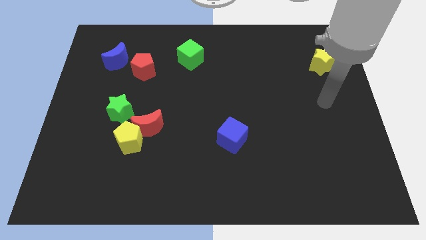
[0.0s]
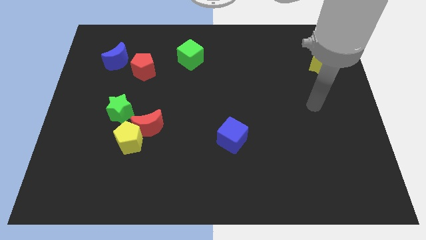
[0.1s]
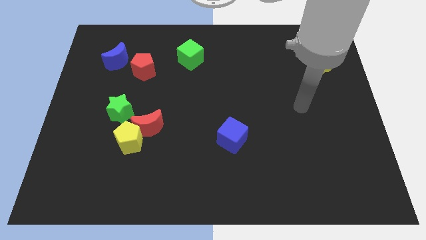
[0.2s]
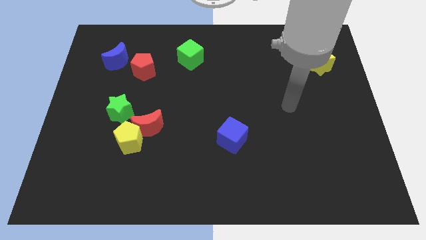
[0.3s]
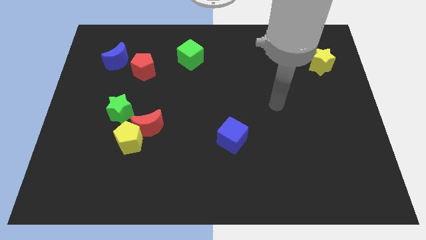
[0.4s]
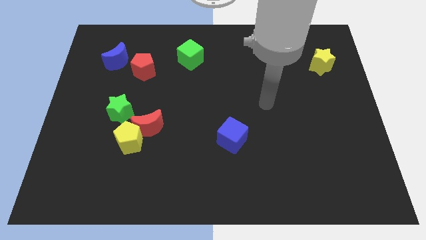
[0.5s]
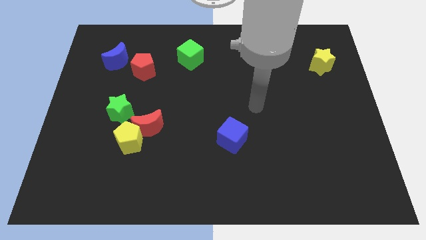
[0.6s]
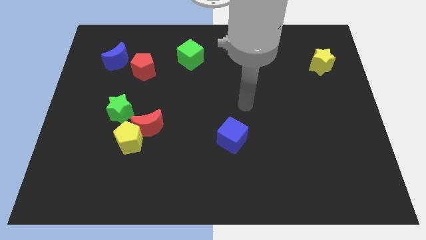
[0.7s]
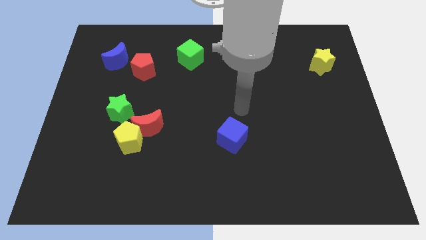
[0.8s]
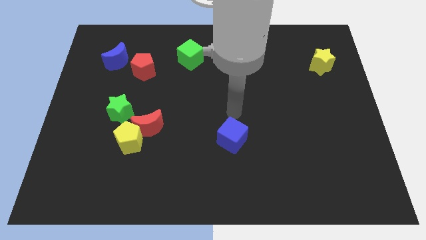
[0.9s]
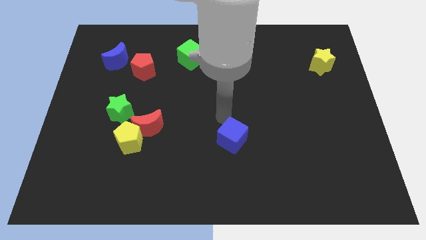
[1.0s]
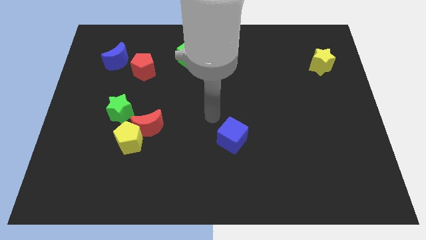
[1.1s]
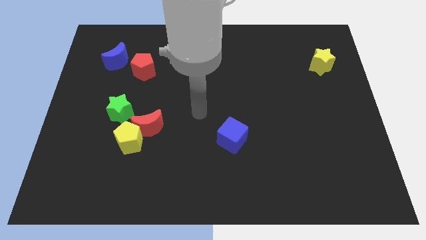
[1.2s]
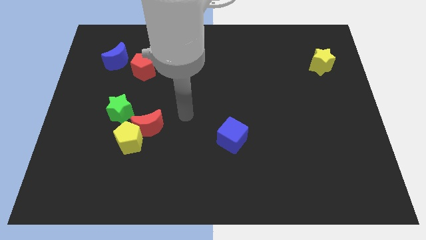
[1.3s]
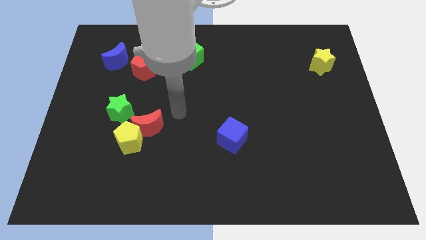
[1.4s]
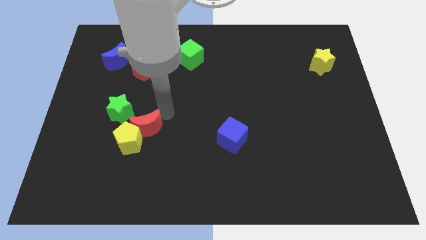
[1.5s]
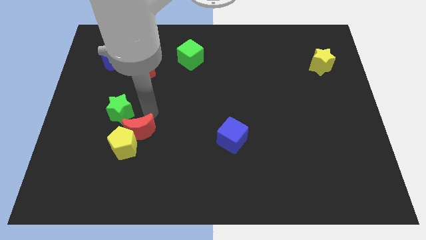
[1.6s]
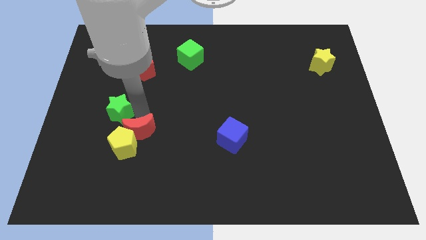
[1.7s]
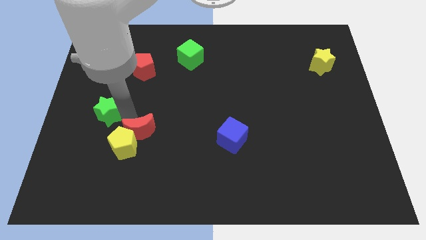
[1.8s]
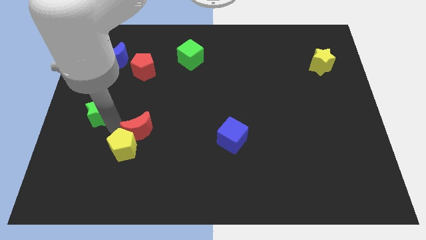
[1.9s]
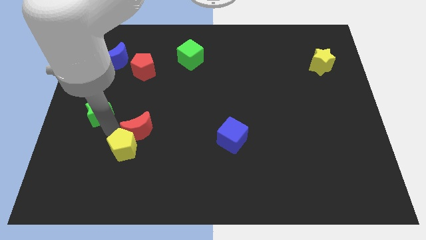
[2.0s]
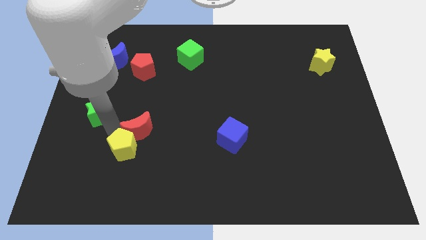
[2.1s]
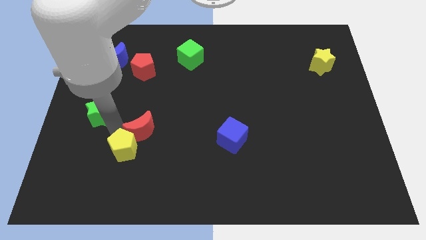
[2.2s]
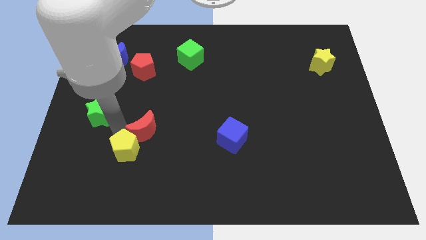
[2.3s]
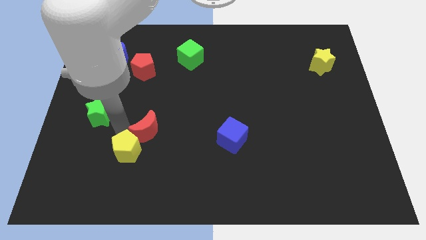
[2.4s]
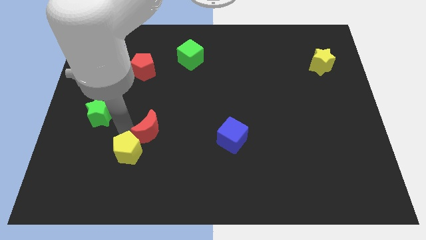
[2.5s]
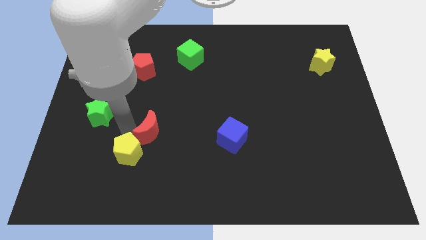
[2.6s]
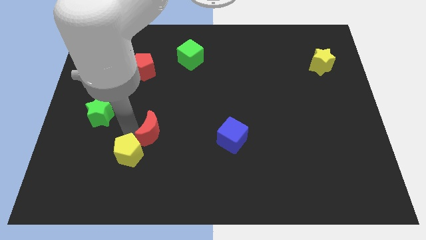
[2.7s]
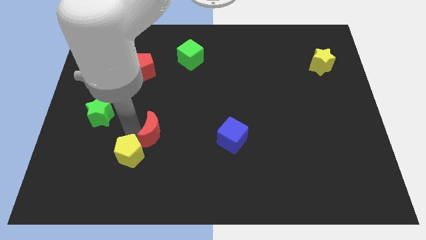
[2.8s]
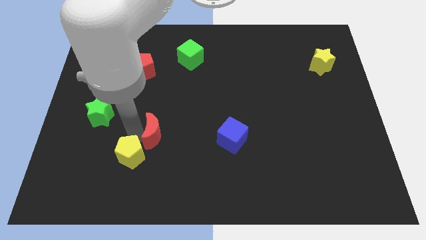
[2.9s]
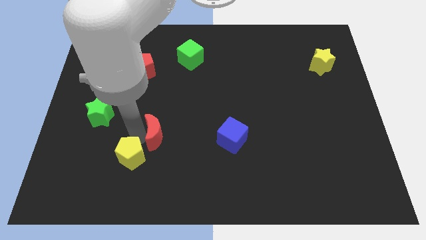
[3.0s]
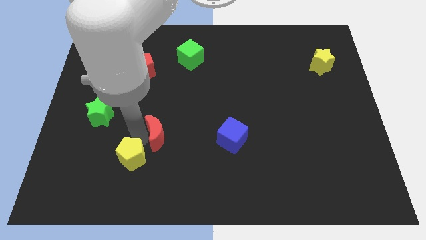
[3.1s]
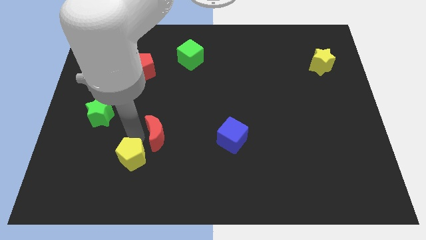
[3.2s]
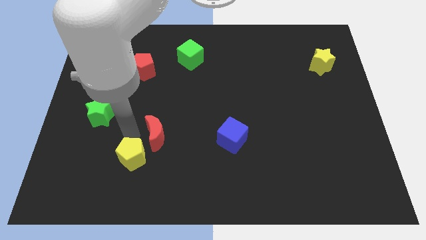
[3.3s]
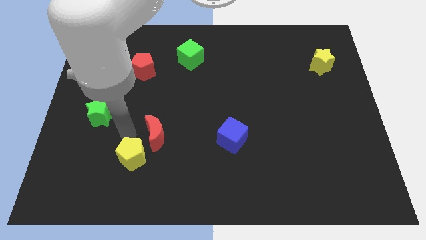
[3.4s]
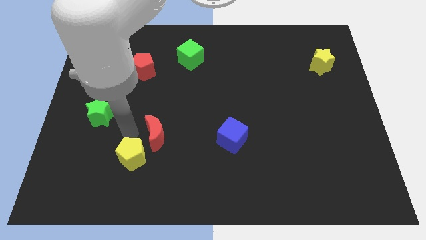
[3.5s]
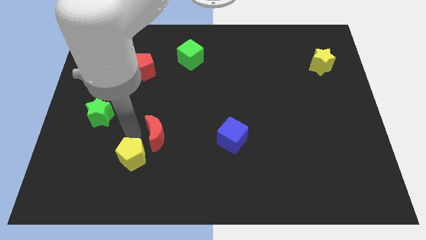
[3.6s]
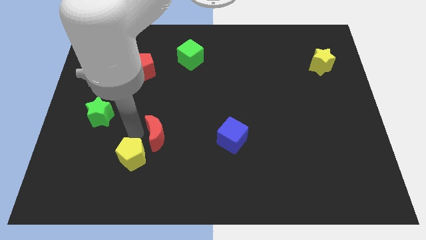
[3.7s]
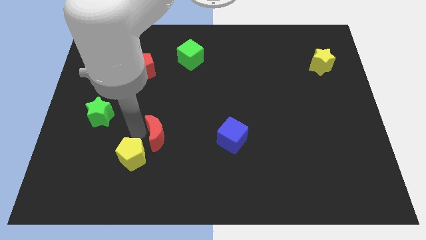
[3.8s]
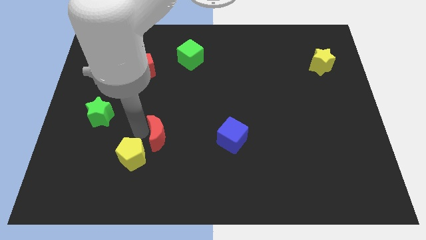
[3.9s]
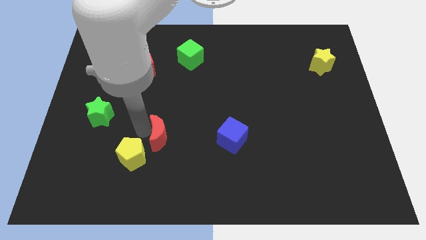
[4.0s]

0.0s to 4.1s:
separate the red moon from the yellow pentagon and green star

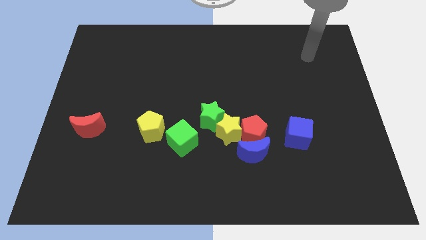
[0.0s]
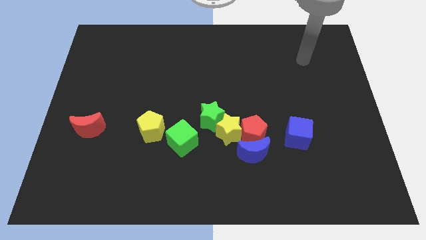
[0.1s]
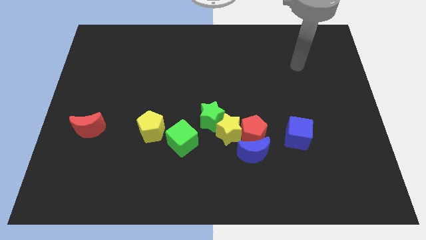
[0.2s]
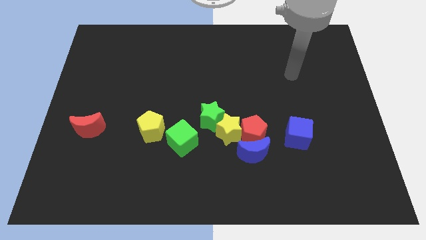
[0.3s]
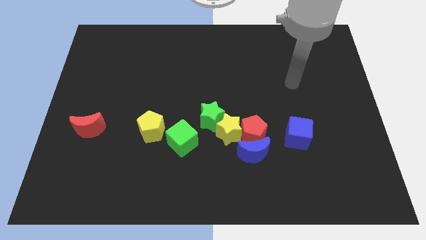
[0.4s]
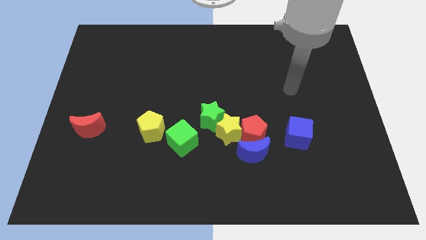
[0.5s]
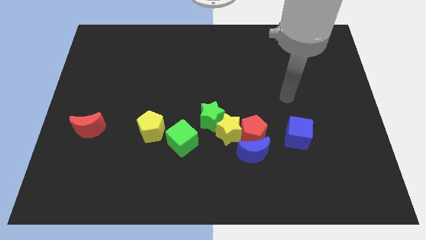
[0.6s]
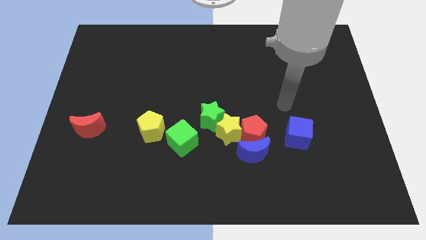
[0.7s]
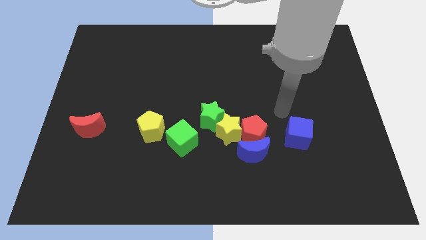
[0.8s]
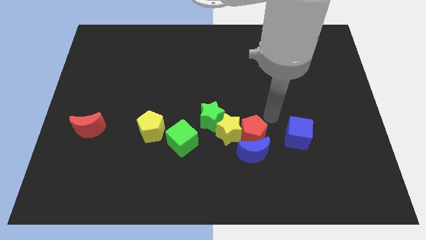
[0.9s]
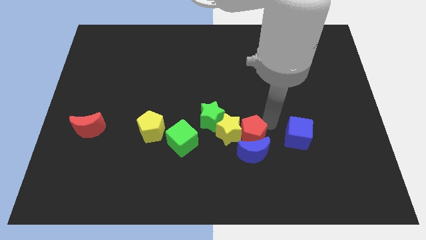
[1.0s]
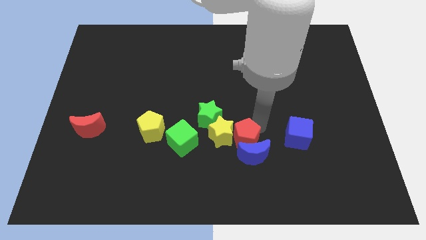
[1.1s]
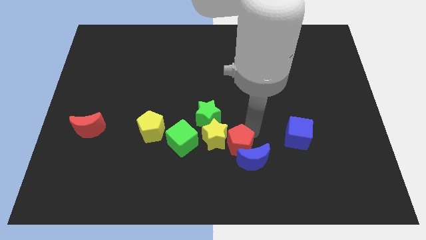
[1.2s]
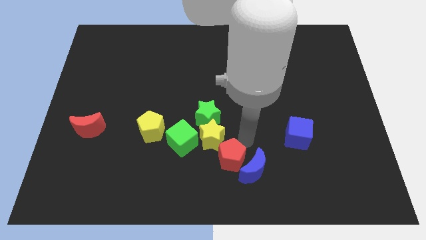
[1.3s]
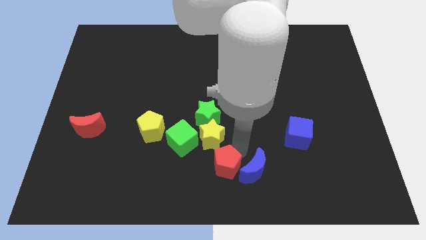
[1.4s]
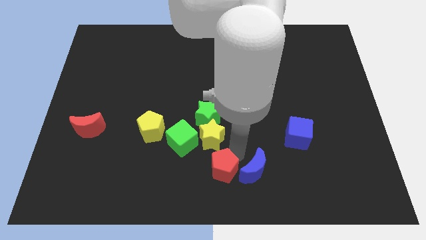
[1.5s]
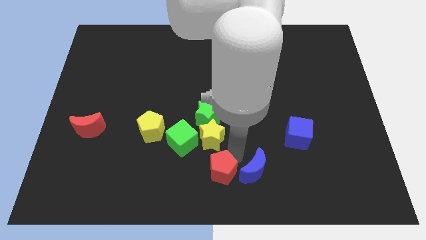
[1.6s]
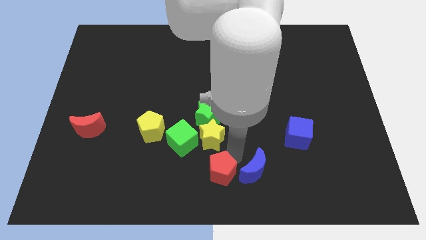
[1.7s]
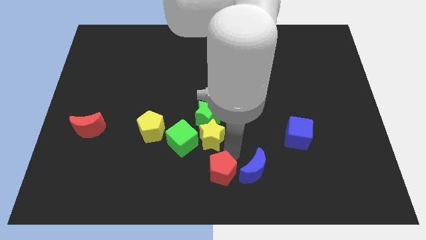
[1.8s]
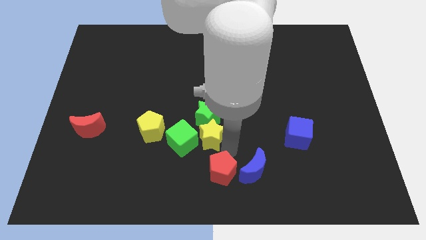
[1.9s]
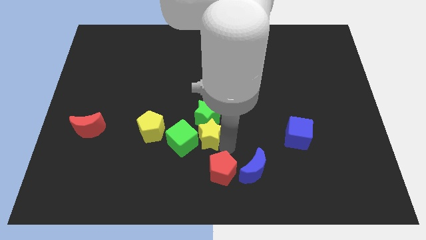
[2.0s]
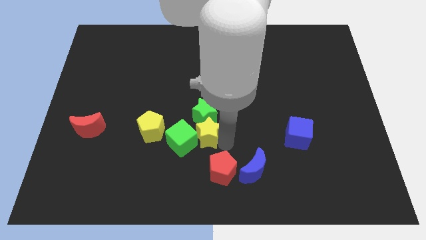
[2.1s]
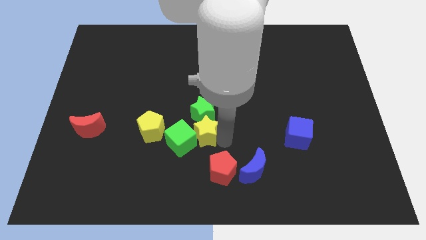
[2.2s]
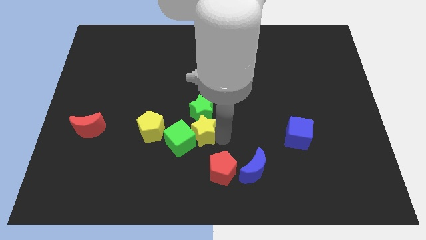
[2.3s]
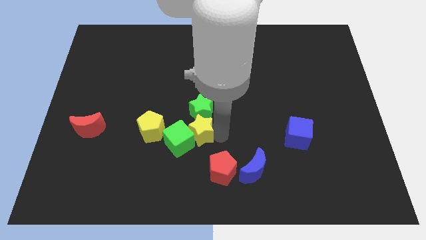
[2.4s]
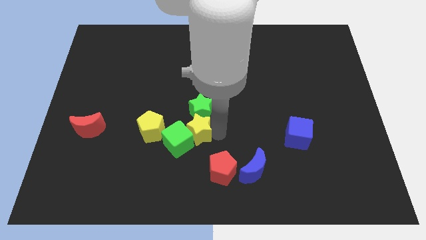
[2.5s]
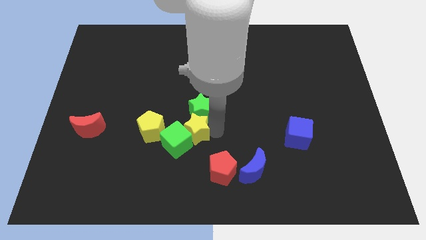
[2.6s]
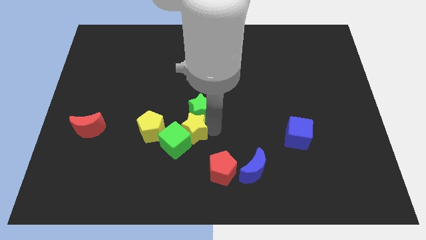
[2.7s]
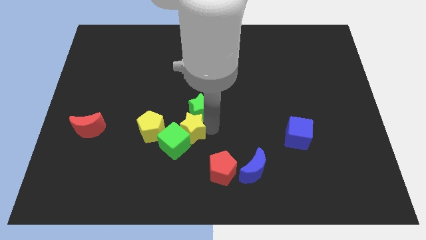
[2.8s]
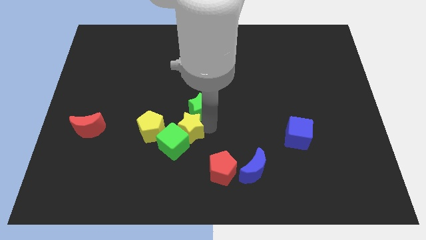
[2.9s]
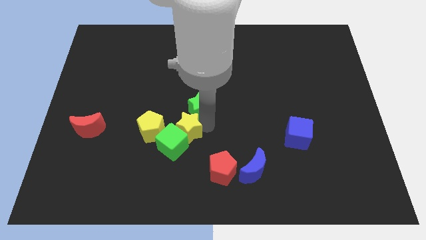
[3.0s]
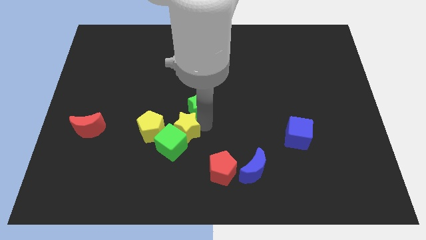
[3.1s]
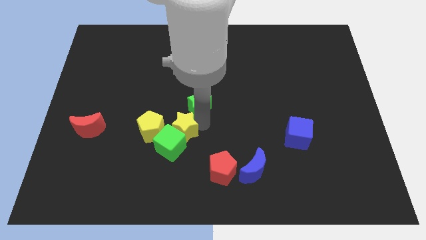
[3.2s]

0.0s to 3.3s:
separate the yellow star from the group

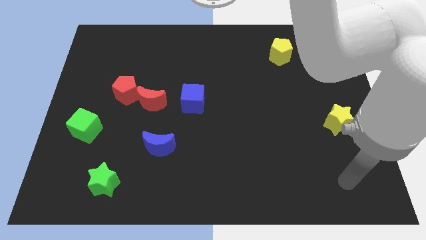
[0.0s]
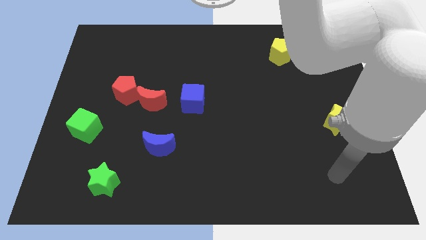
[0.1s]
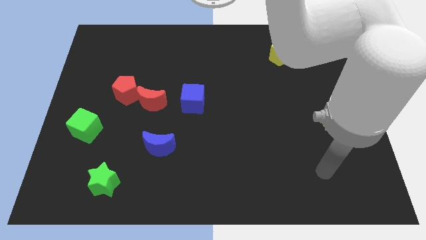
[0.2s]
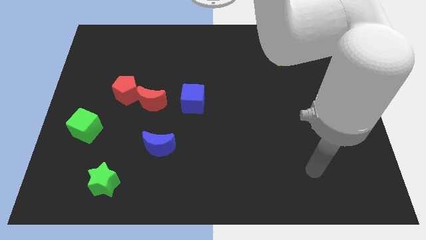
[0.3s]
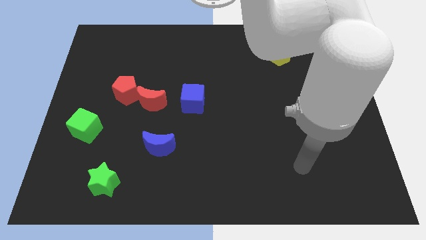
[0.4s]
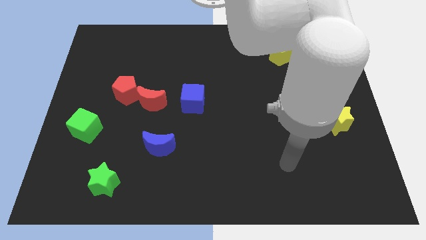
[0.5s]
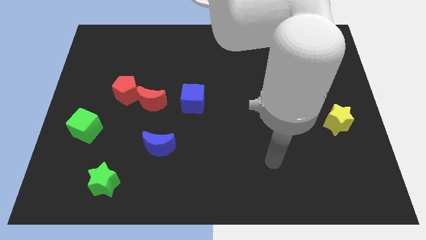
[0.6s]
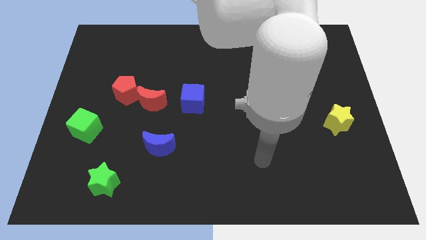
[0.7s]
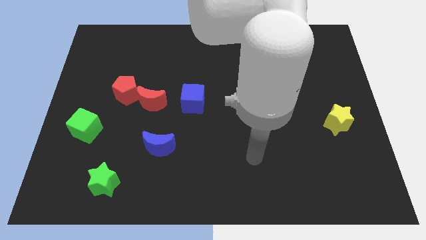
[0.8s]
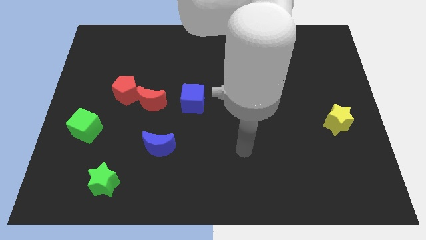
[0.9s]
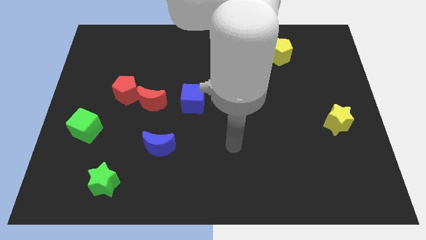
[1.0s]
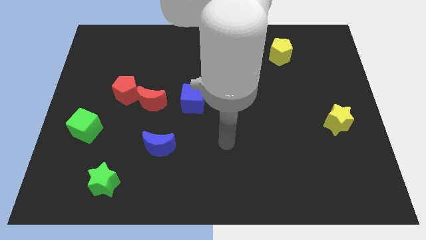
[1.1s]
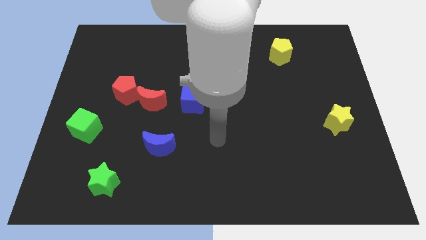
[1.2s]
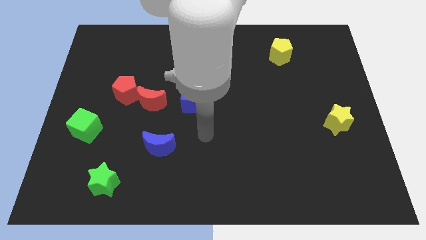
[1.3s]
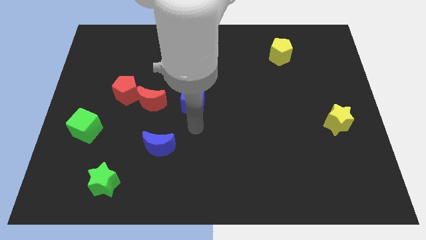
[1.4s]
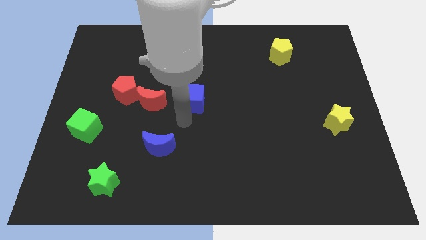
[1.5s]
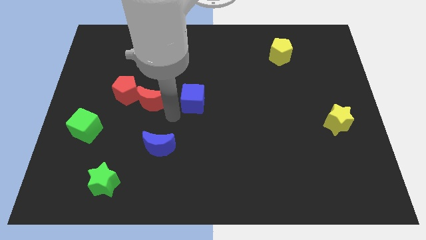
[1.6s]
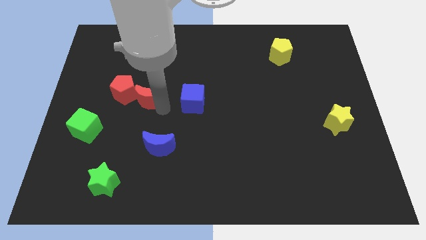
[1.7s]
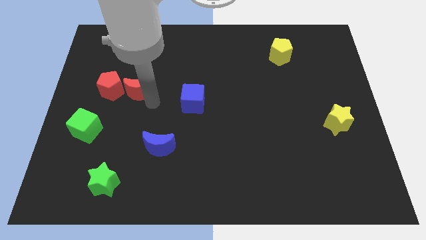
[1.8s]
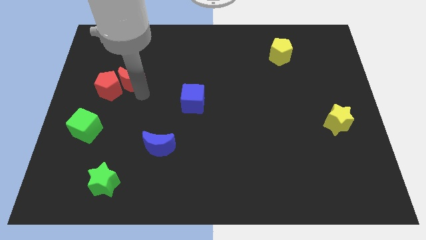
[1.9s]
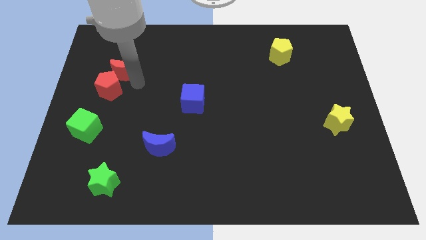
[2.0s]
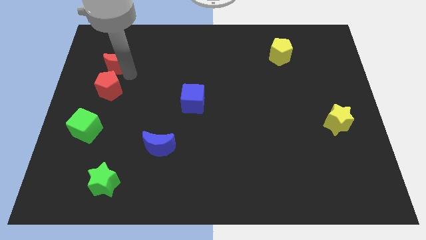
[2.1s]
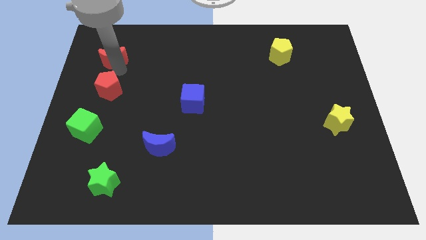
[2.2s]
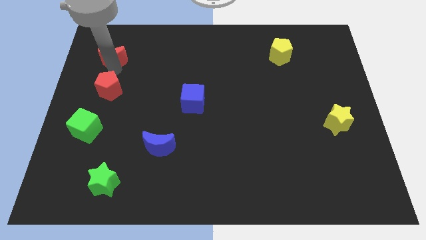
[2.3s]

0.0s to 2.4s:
pull the red pentagon apart from the red moon
